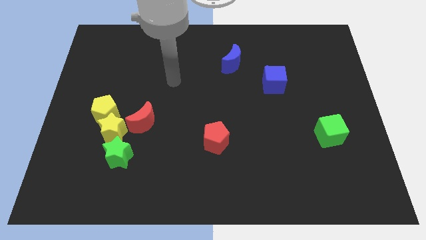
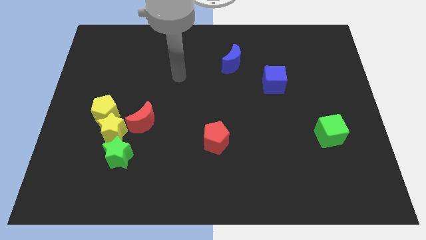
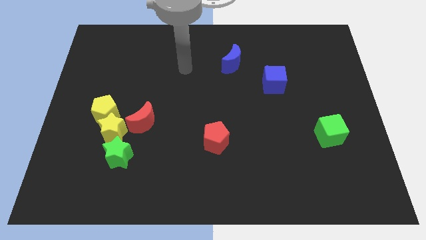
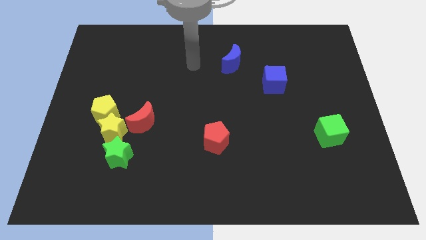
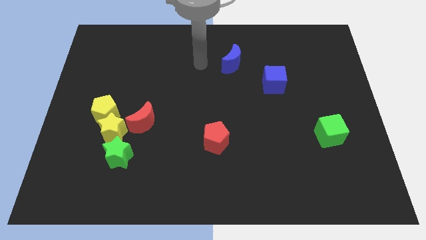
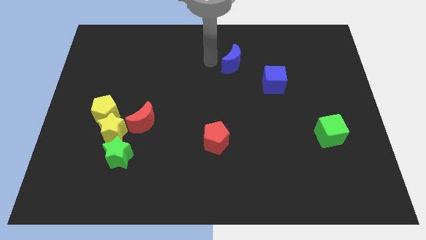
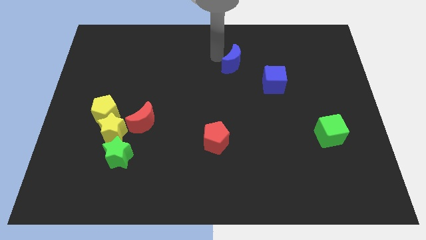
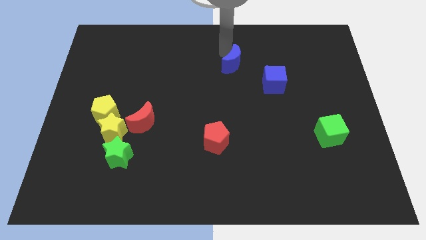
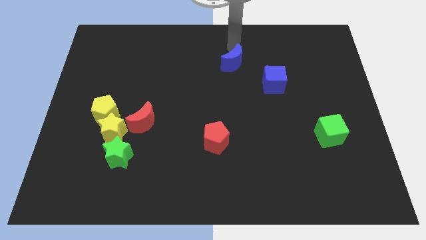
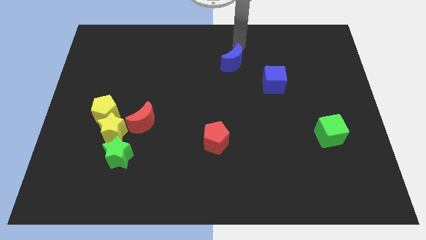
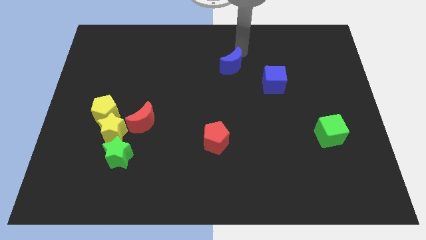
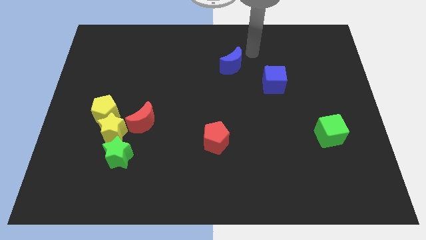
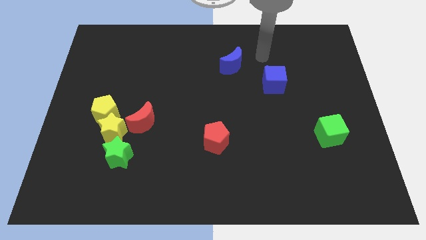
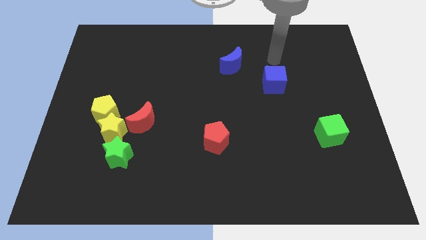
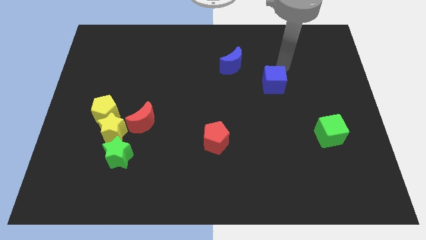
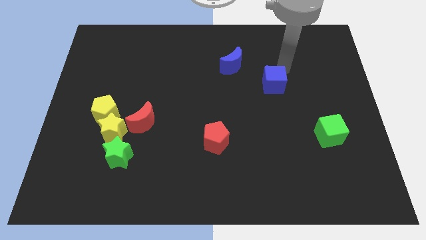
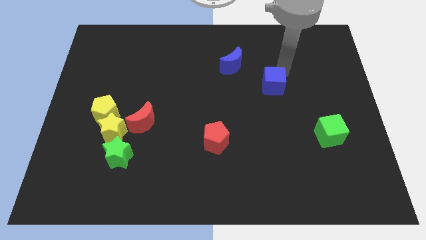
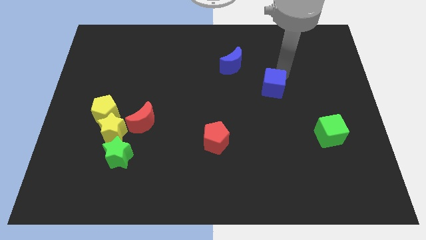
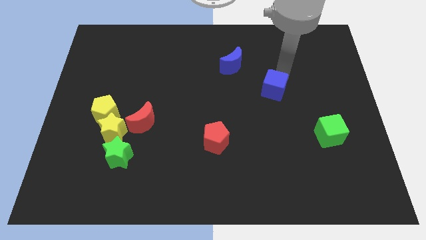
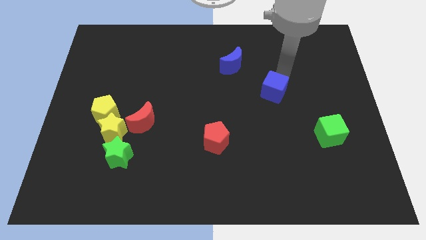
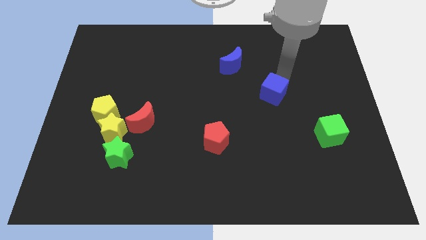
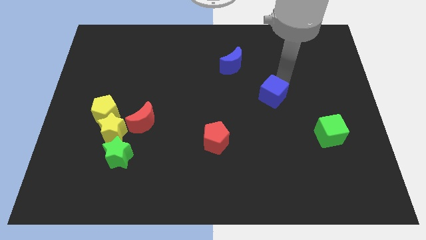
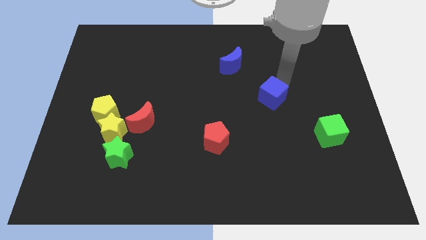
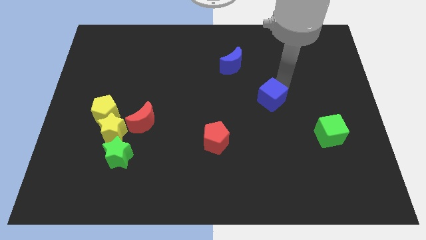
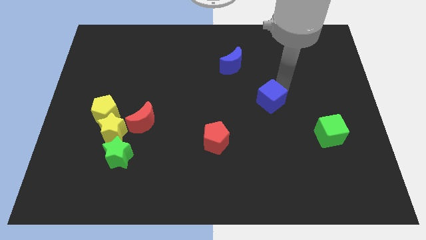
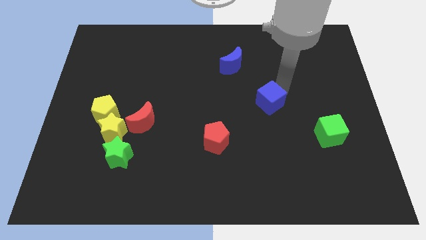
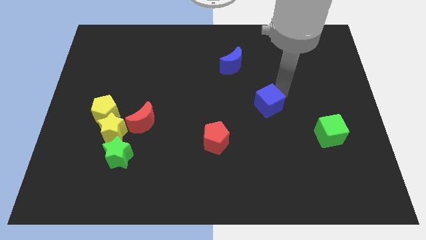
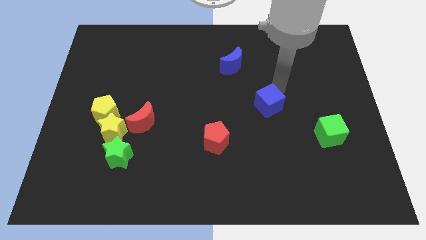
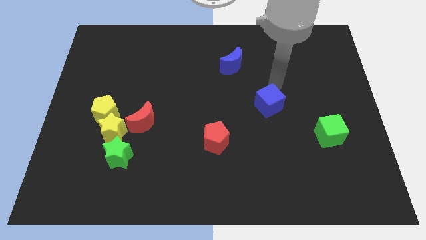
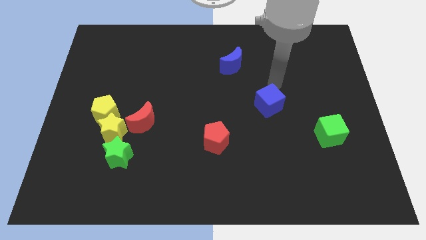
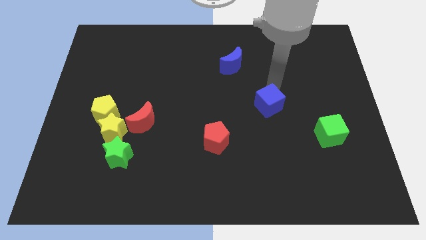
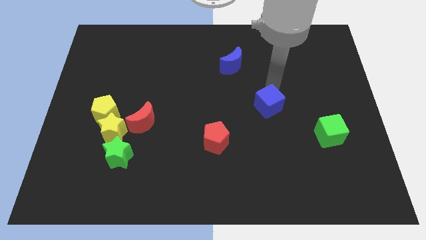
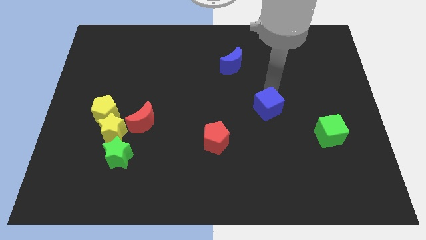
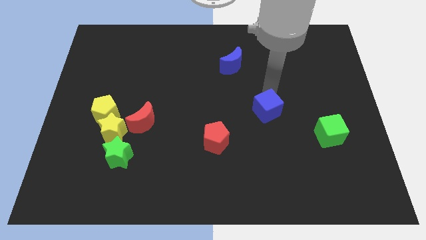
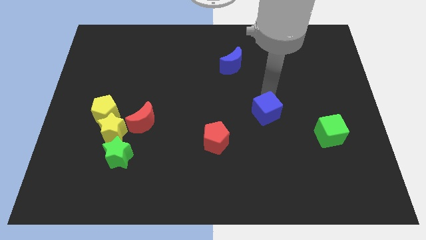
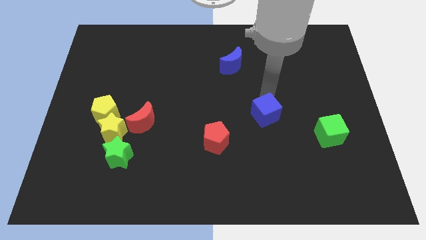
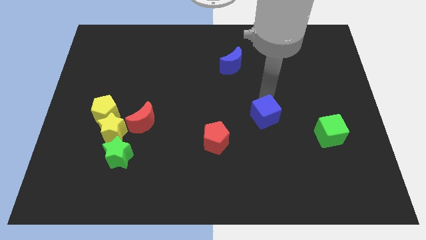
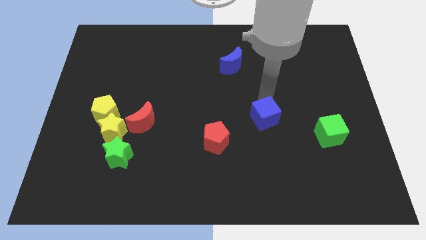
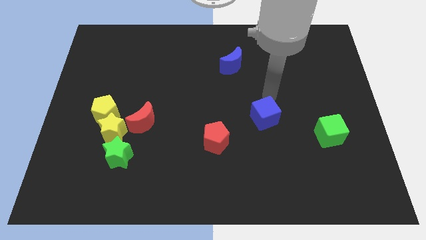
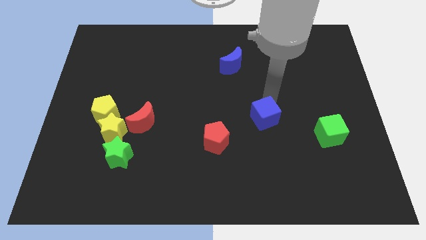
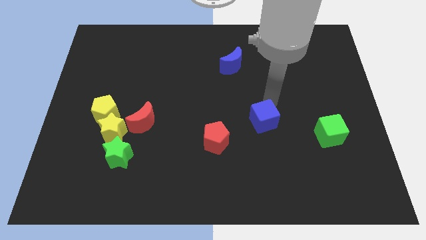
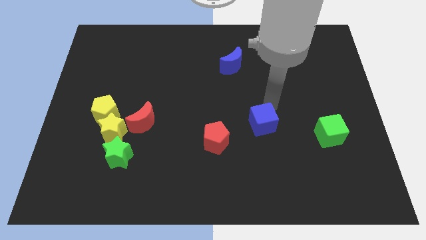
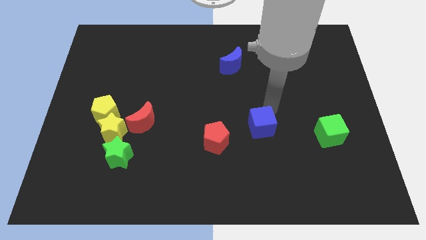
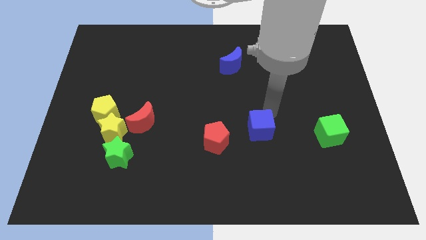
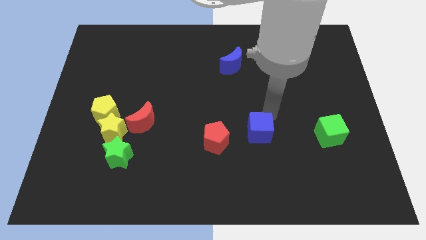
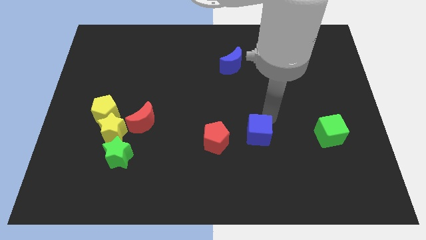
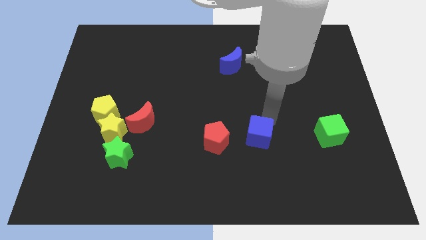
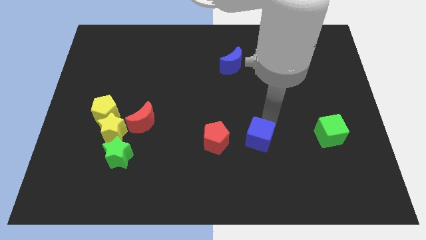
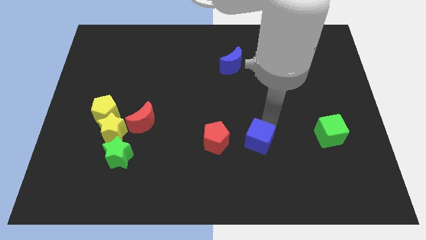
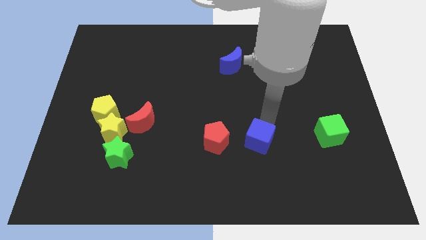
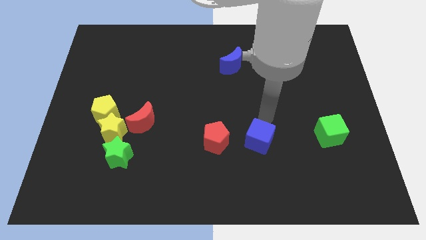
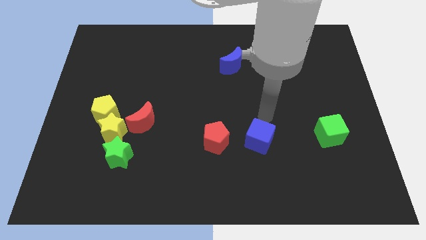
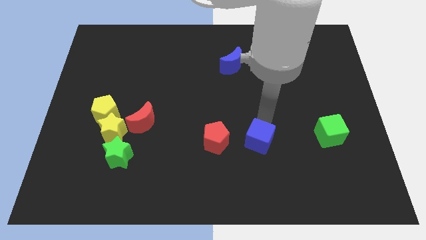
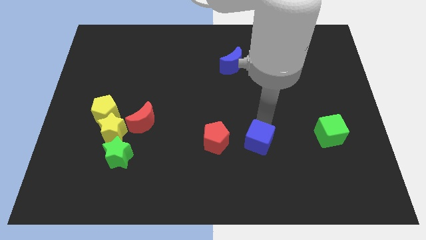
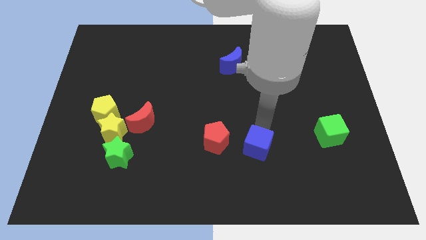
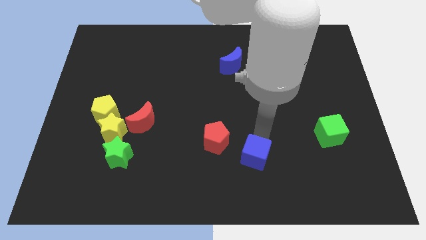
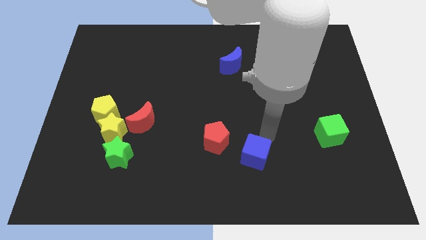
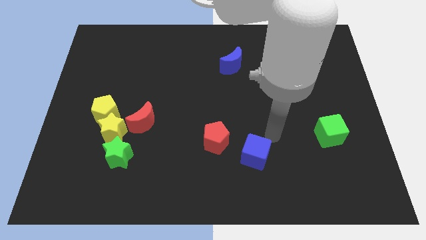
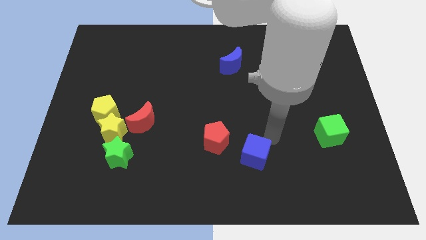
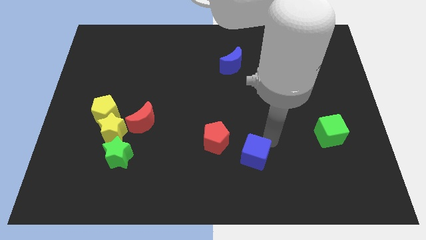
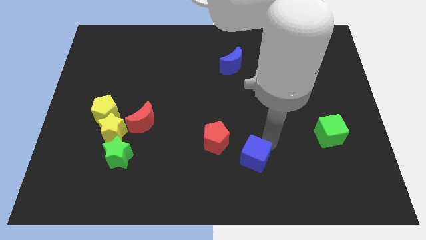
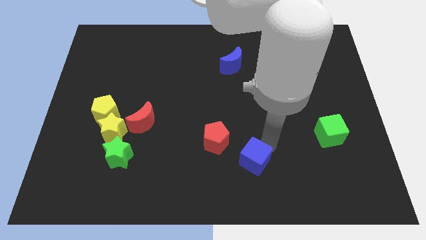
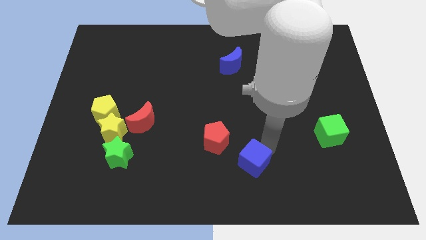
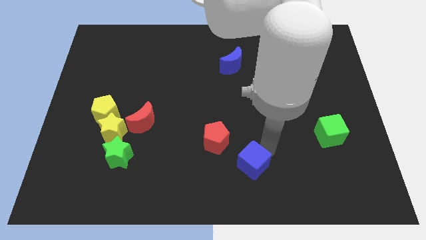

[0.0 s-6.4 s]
move the blue cube to the bottom
